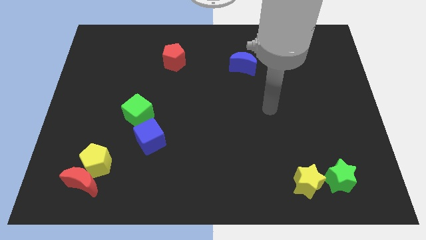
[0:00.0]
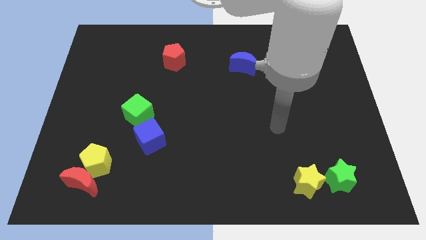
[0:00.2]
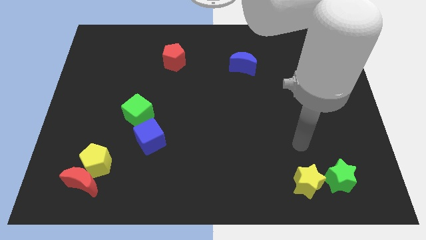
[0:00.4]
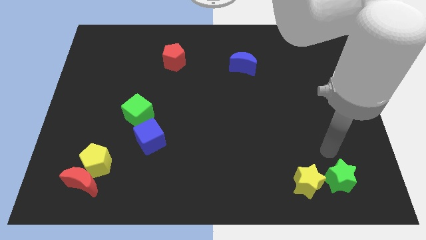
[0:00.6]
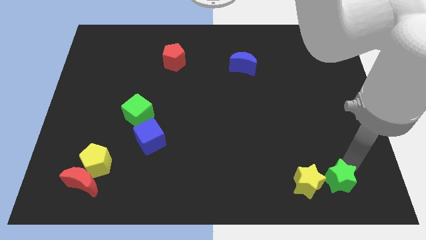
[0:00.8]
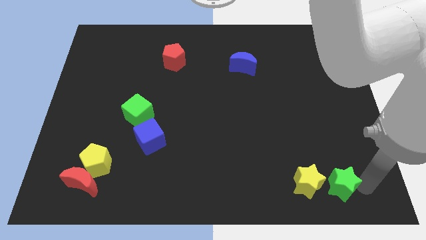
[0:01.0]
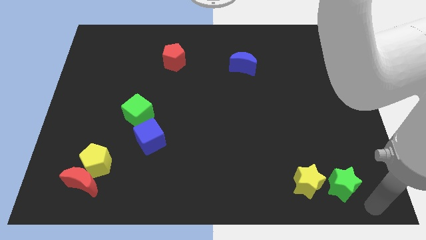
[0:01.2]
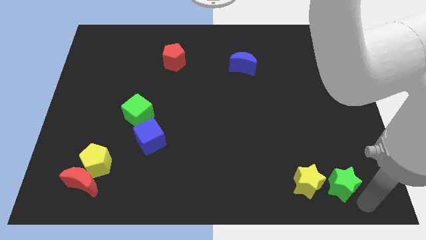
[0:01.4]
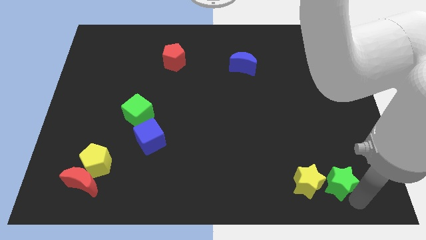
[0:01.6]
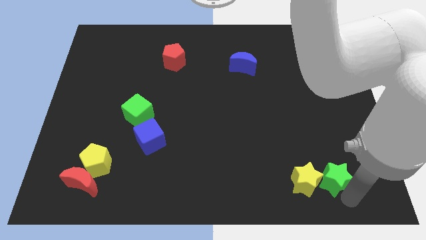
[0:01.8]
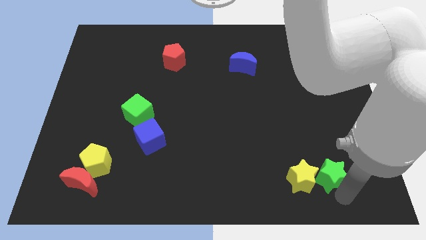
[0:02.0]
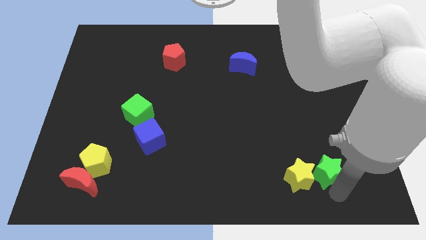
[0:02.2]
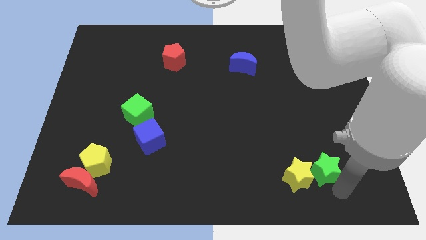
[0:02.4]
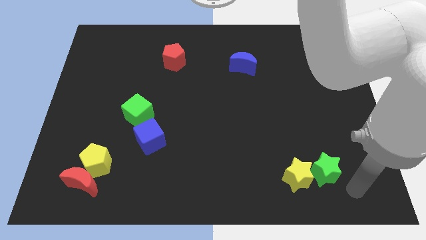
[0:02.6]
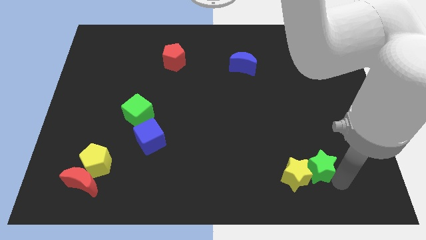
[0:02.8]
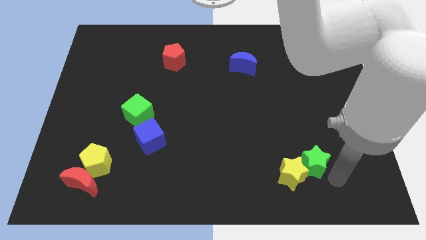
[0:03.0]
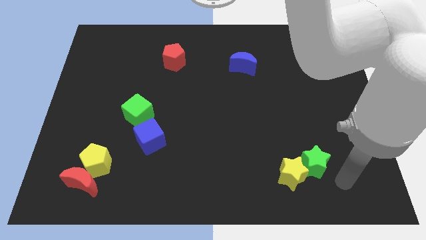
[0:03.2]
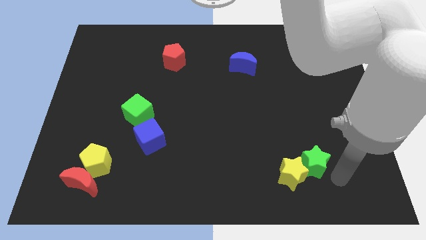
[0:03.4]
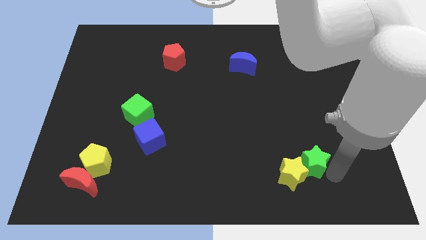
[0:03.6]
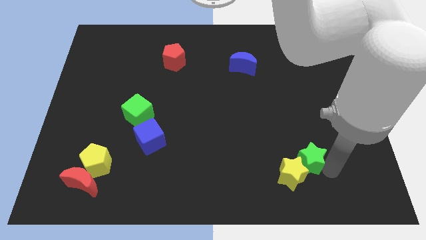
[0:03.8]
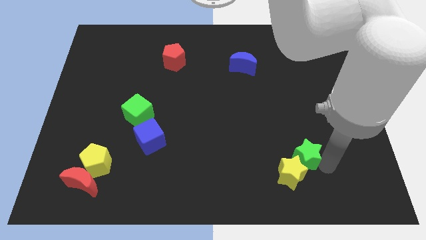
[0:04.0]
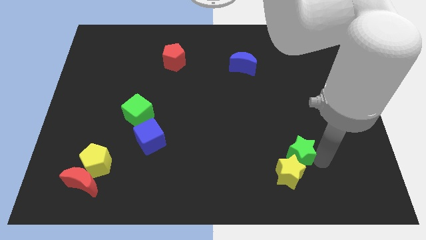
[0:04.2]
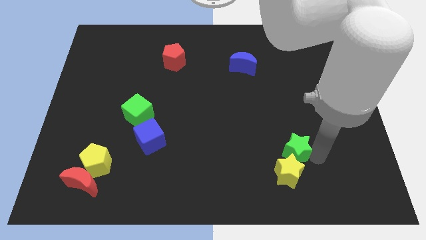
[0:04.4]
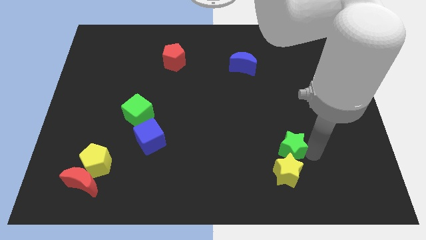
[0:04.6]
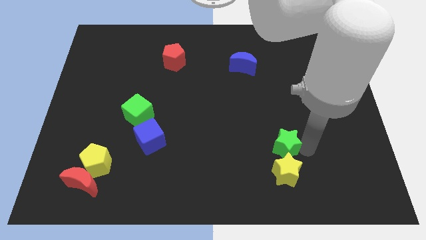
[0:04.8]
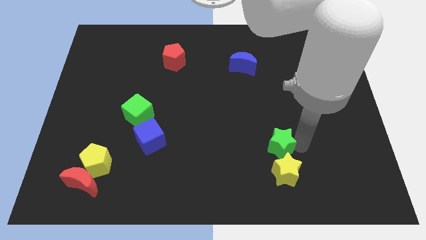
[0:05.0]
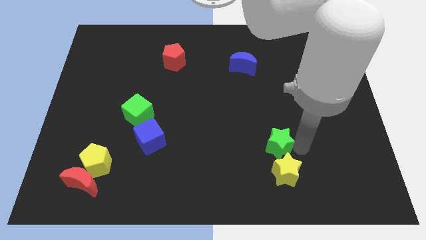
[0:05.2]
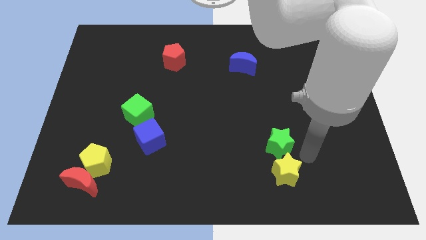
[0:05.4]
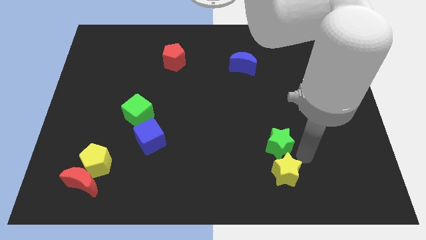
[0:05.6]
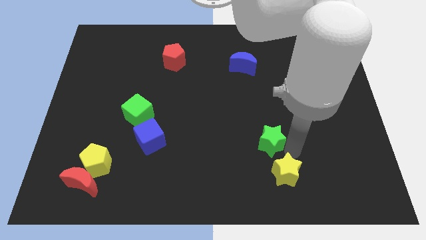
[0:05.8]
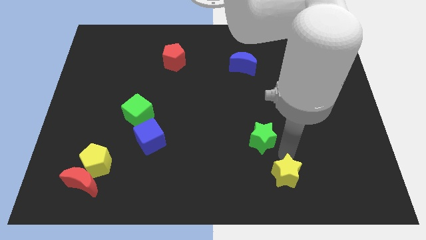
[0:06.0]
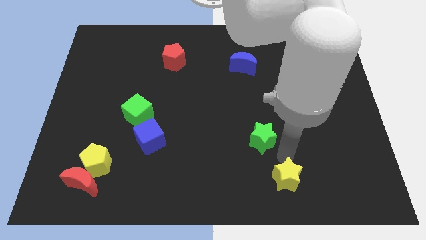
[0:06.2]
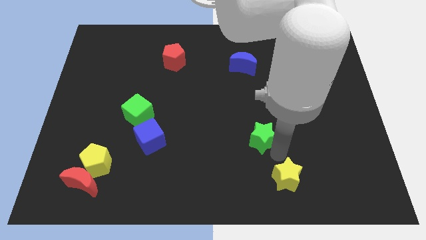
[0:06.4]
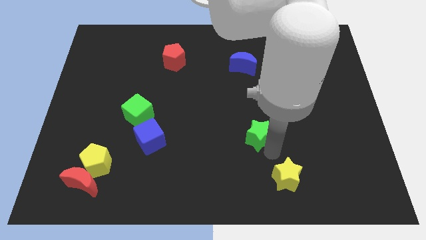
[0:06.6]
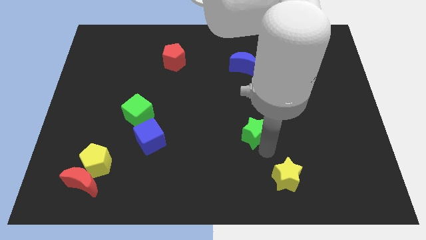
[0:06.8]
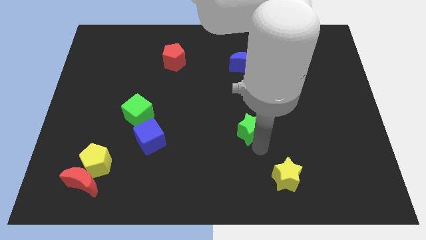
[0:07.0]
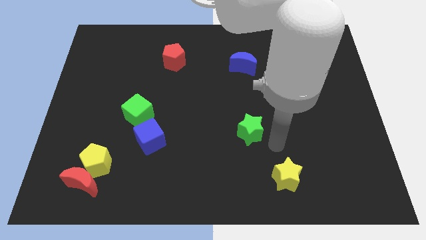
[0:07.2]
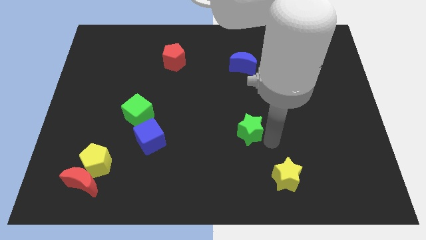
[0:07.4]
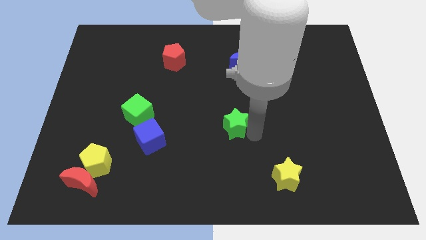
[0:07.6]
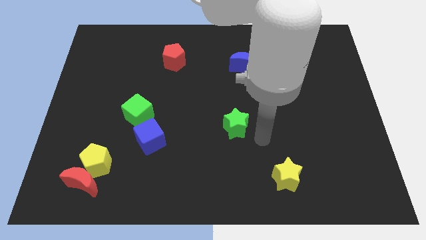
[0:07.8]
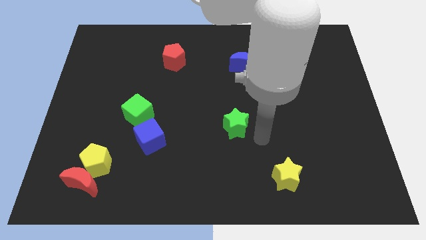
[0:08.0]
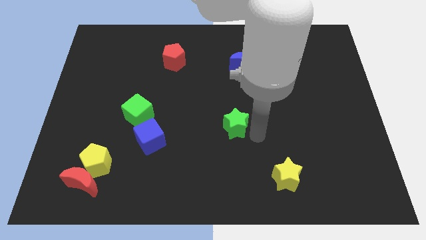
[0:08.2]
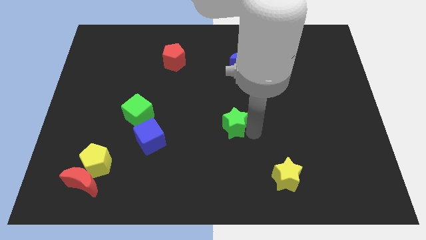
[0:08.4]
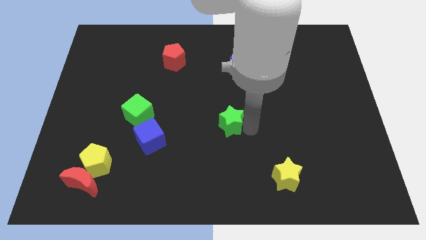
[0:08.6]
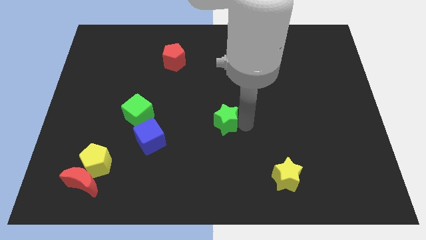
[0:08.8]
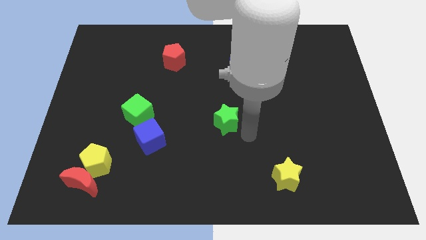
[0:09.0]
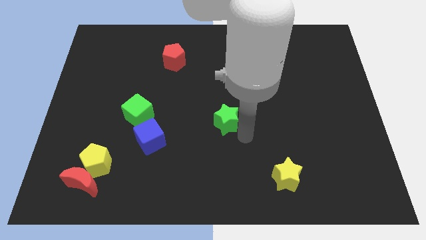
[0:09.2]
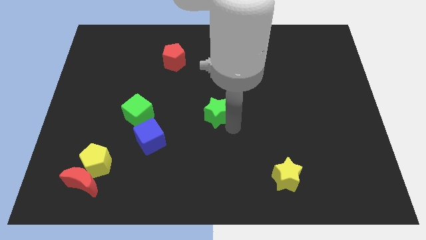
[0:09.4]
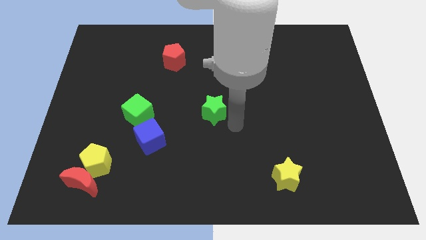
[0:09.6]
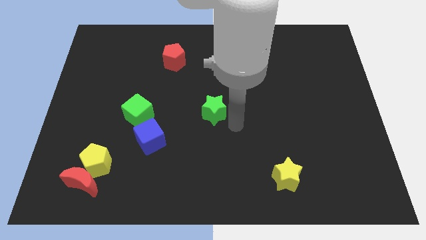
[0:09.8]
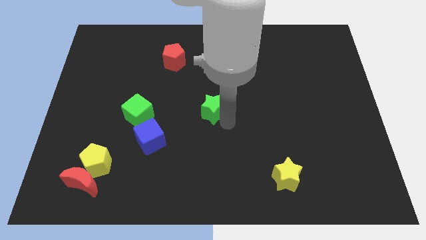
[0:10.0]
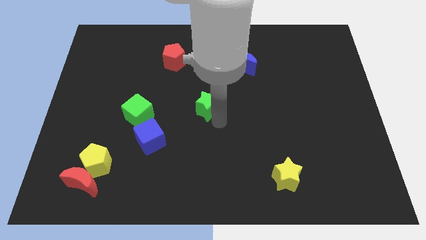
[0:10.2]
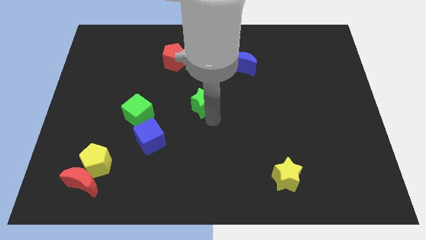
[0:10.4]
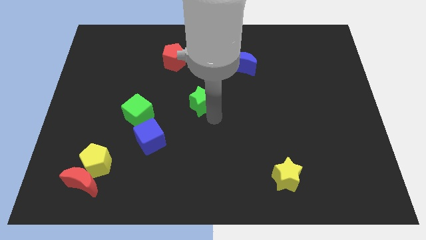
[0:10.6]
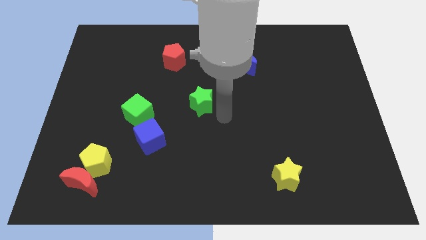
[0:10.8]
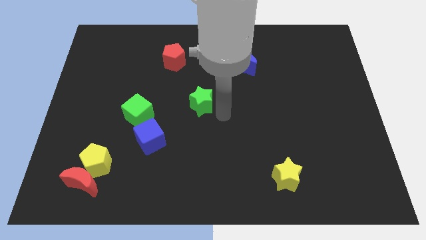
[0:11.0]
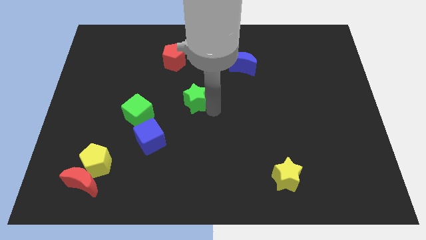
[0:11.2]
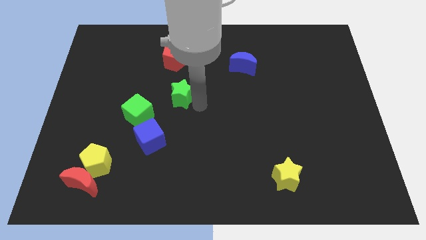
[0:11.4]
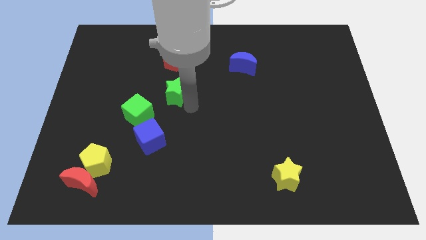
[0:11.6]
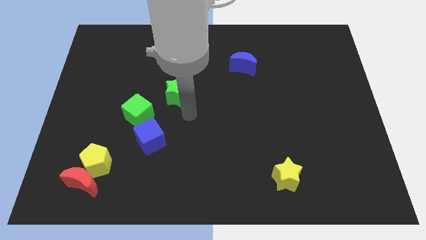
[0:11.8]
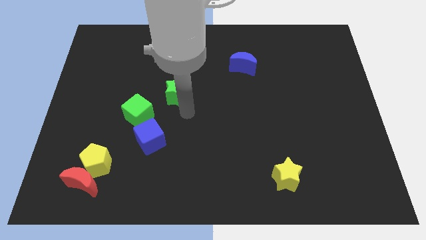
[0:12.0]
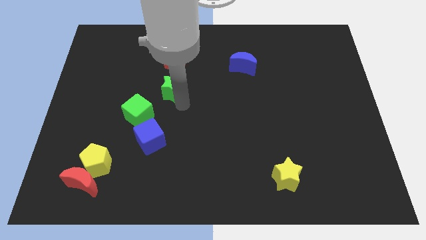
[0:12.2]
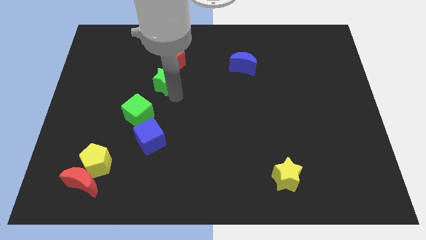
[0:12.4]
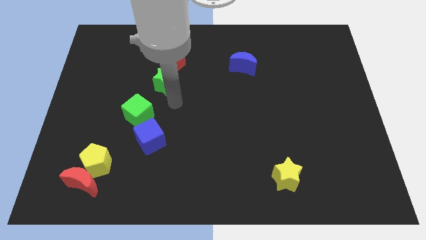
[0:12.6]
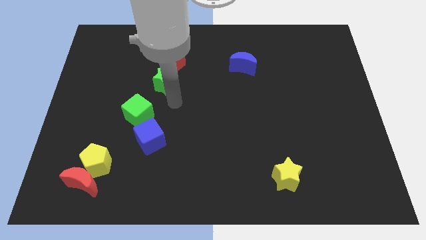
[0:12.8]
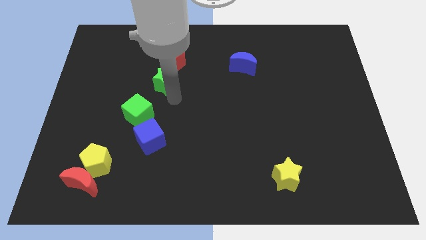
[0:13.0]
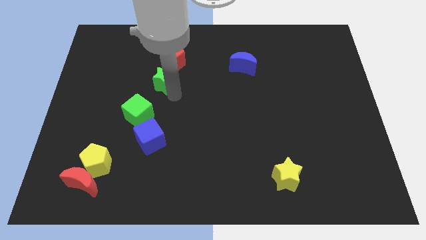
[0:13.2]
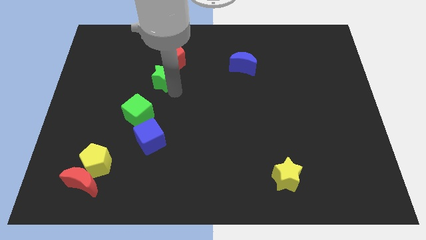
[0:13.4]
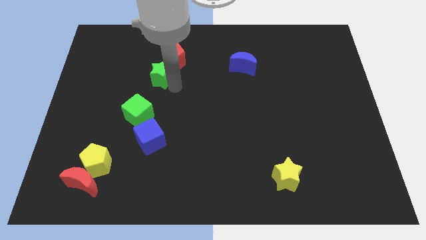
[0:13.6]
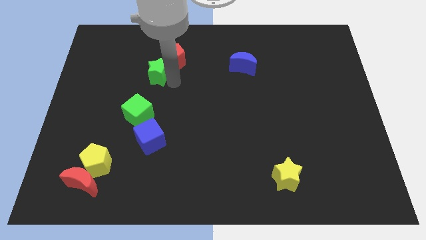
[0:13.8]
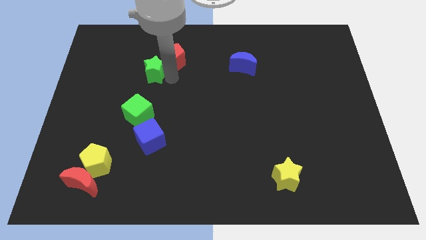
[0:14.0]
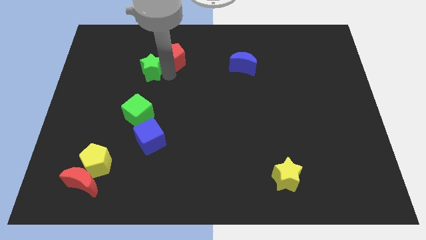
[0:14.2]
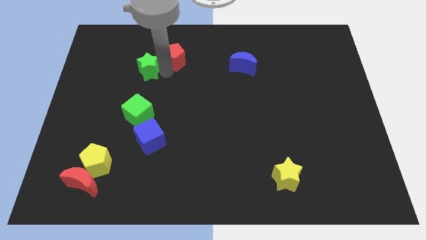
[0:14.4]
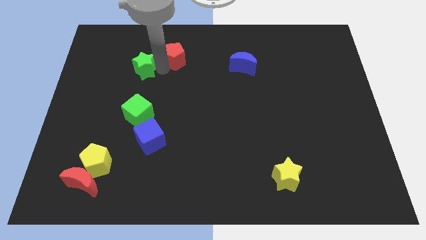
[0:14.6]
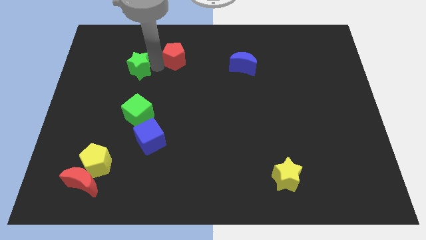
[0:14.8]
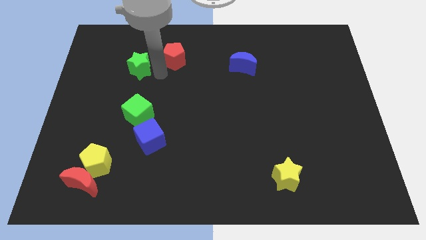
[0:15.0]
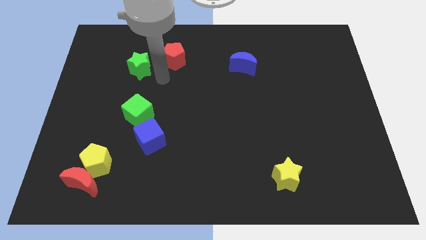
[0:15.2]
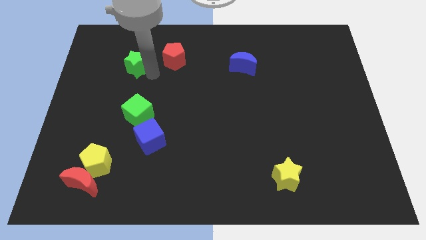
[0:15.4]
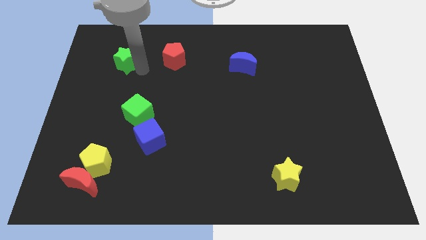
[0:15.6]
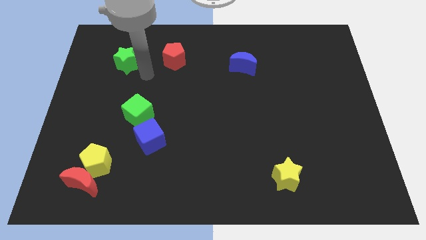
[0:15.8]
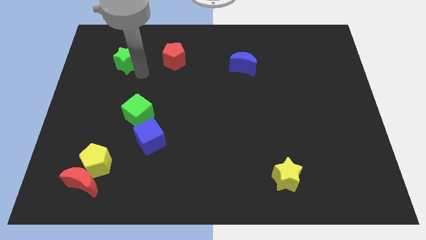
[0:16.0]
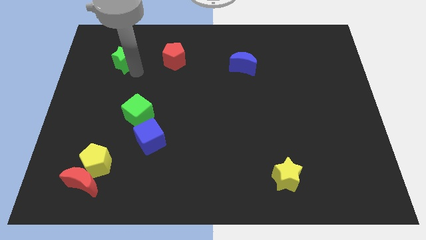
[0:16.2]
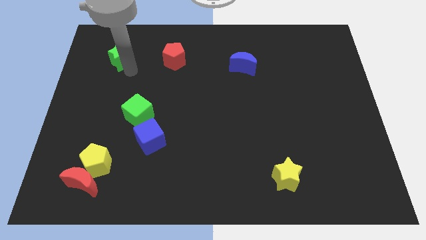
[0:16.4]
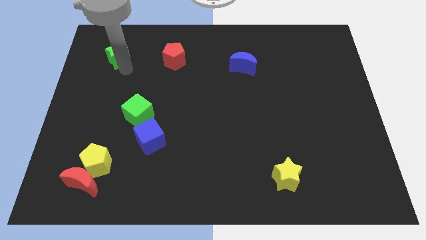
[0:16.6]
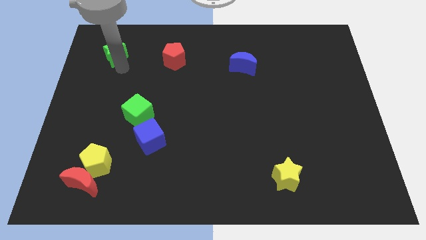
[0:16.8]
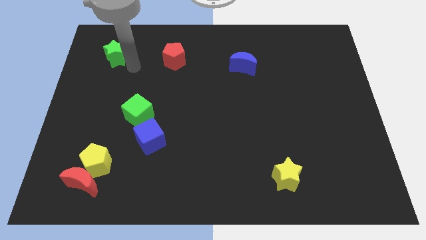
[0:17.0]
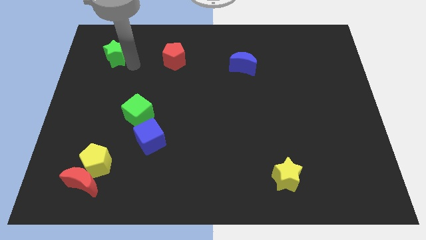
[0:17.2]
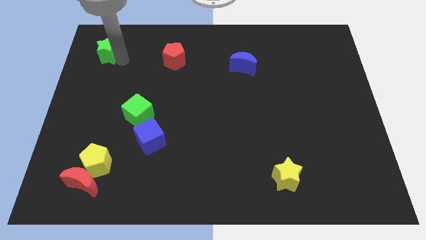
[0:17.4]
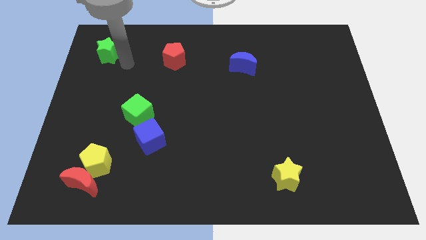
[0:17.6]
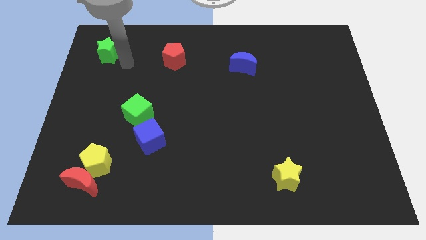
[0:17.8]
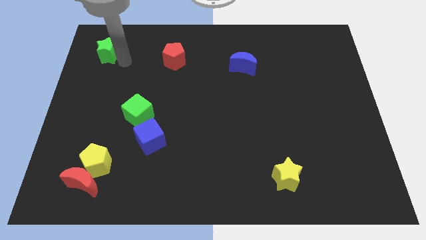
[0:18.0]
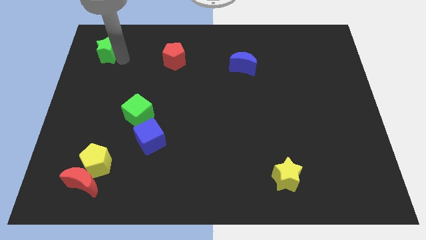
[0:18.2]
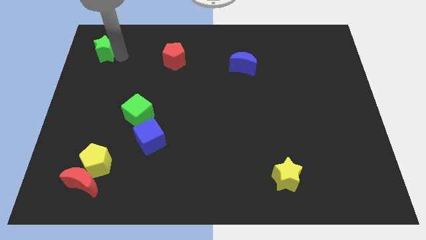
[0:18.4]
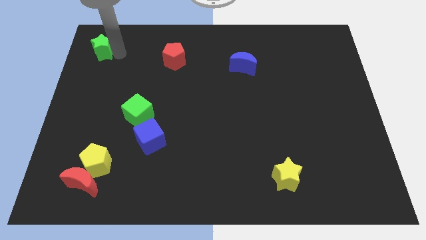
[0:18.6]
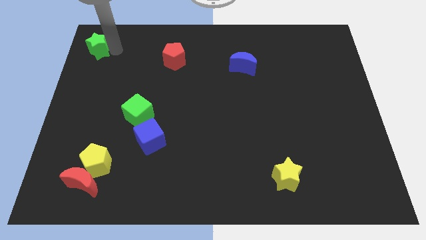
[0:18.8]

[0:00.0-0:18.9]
move the green star to the top left corner
